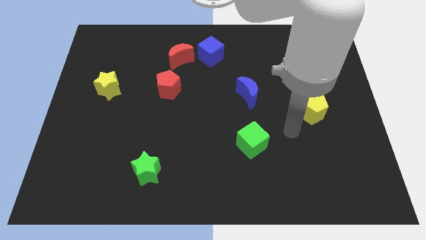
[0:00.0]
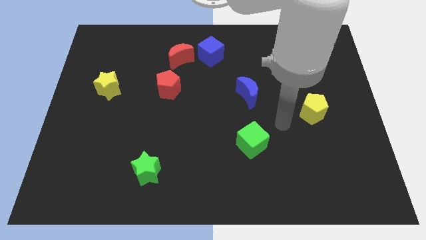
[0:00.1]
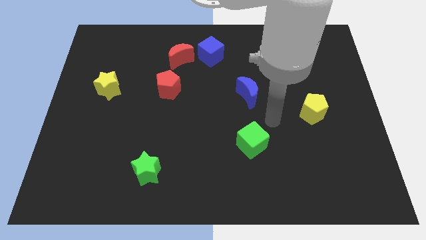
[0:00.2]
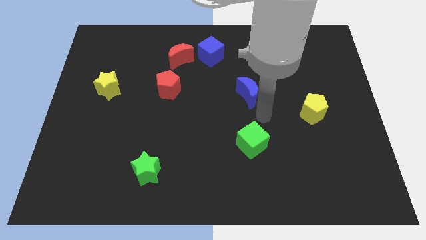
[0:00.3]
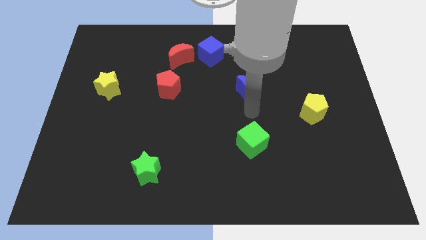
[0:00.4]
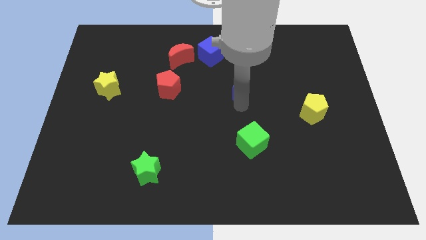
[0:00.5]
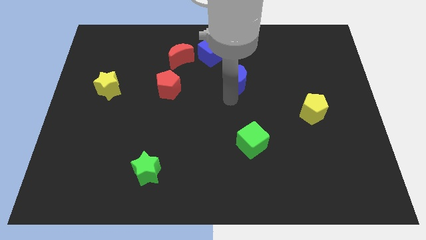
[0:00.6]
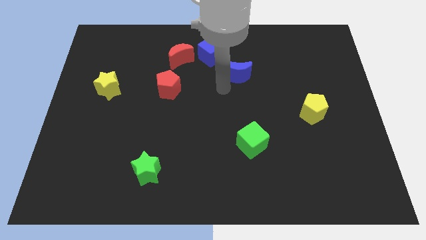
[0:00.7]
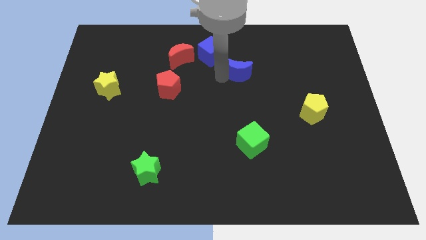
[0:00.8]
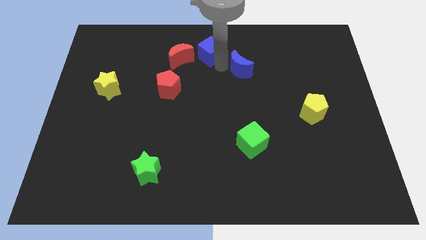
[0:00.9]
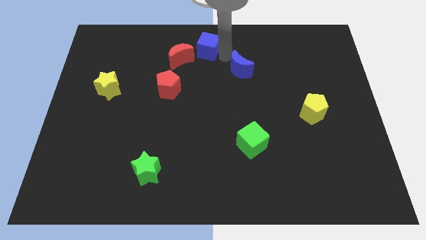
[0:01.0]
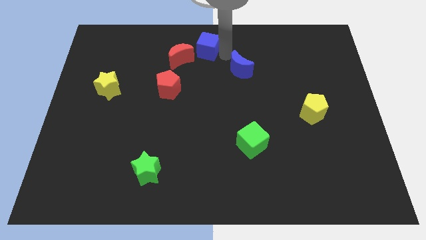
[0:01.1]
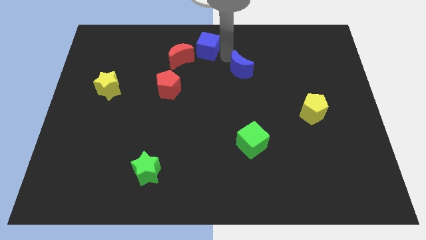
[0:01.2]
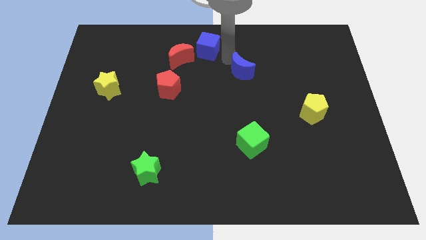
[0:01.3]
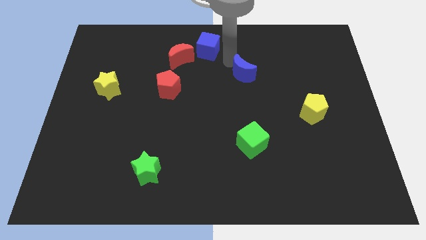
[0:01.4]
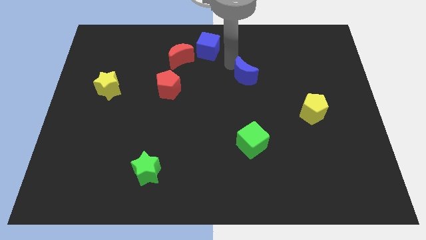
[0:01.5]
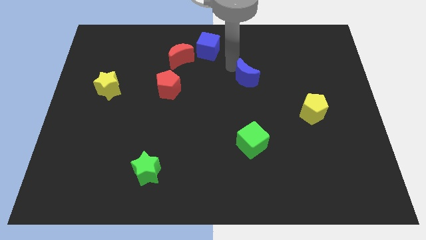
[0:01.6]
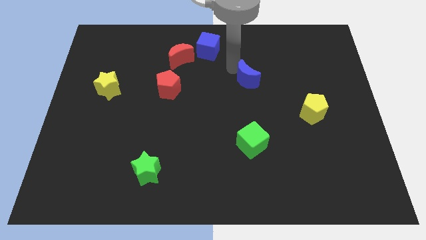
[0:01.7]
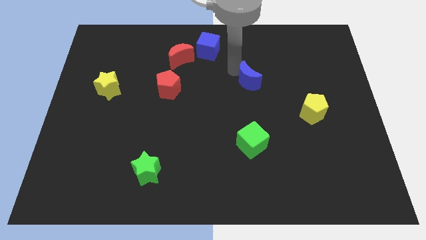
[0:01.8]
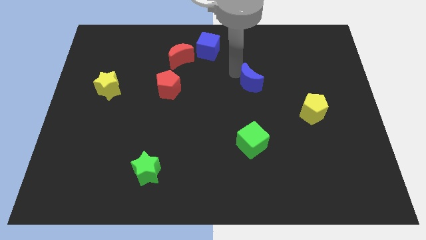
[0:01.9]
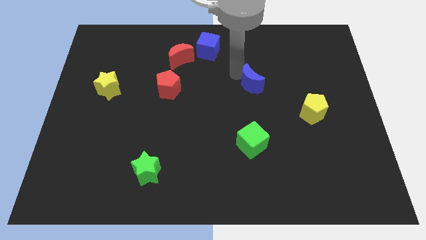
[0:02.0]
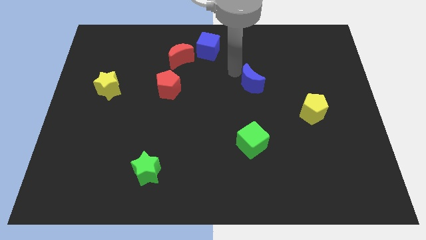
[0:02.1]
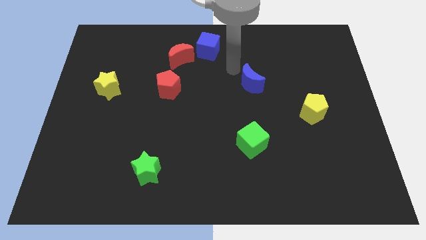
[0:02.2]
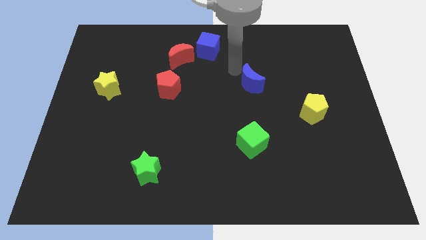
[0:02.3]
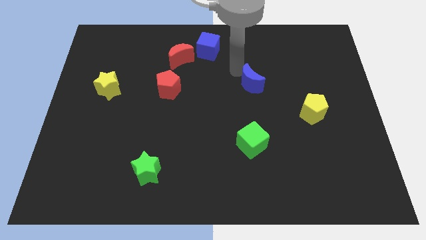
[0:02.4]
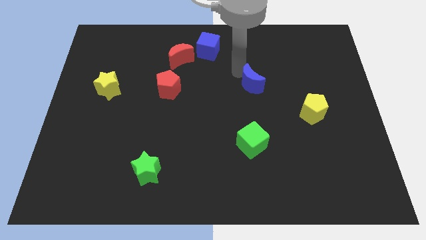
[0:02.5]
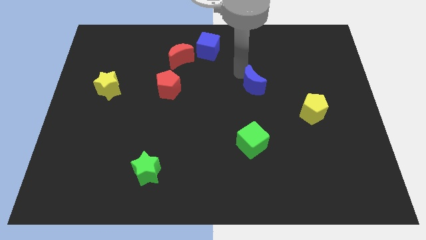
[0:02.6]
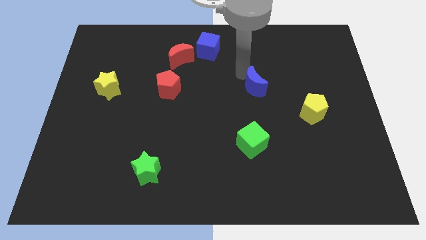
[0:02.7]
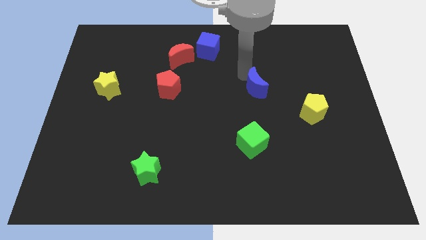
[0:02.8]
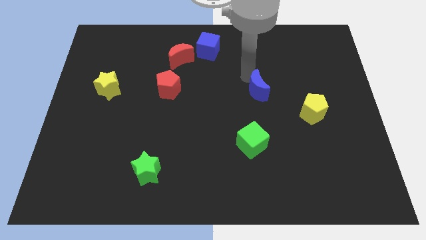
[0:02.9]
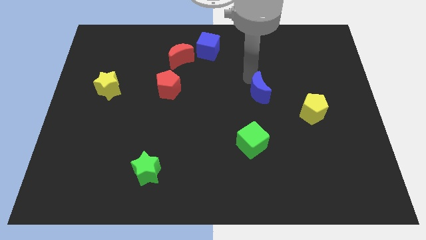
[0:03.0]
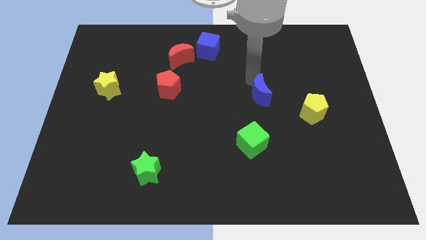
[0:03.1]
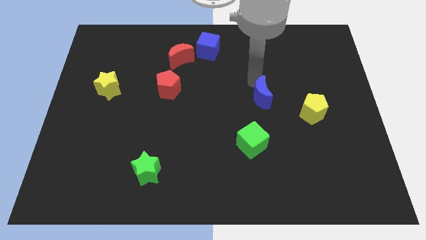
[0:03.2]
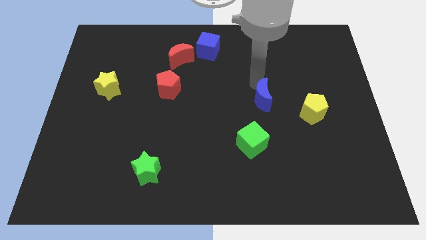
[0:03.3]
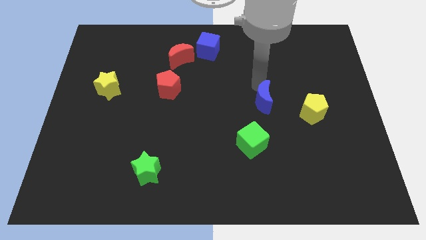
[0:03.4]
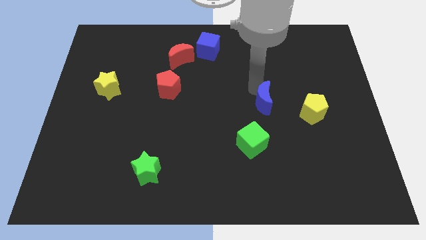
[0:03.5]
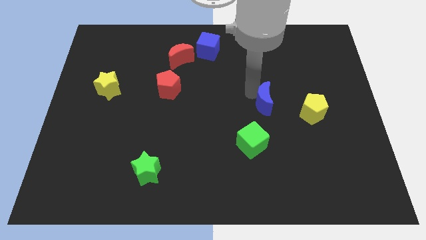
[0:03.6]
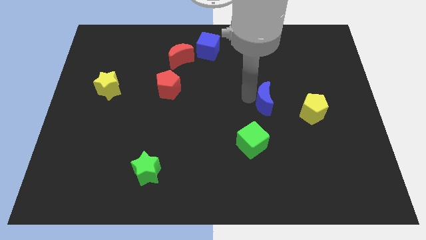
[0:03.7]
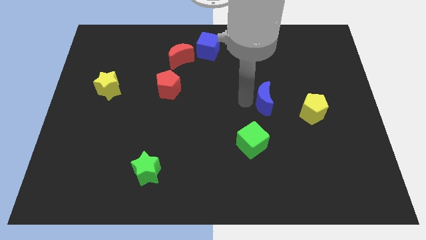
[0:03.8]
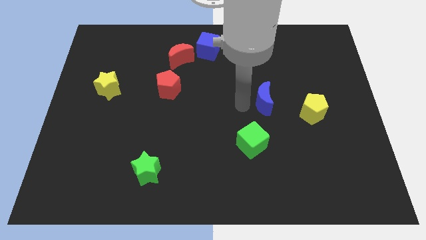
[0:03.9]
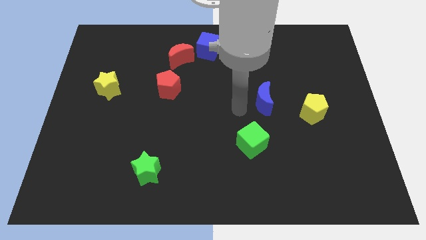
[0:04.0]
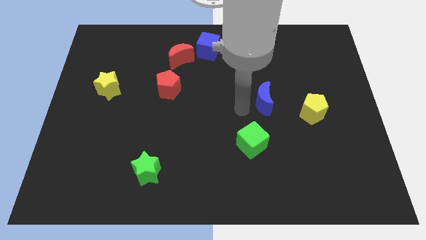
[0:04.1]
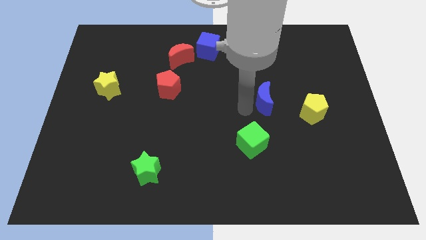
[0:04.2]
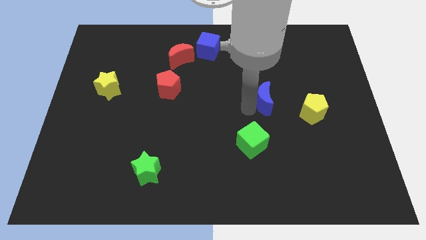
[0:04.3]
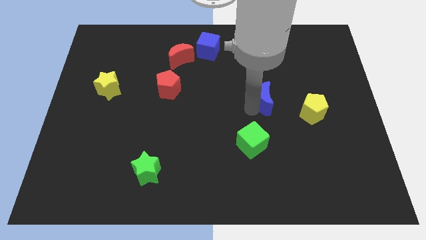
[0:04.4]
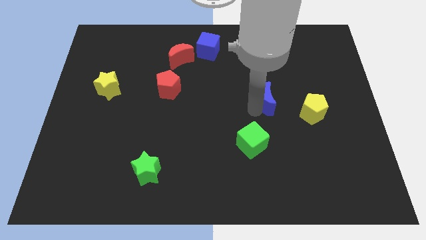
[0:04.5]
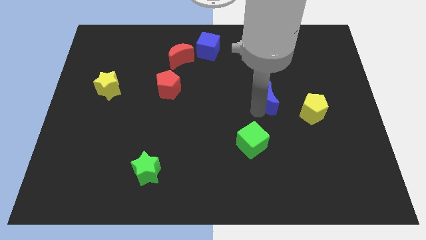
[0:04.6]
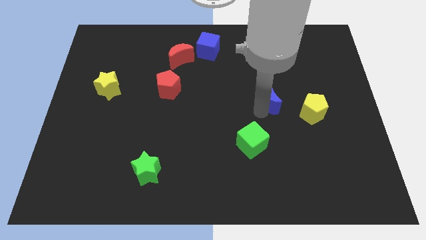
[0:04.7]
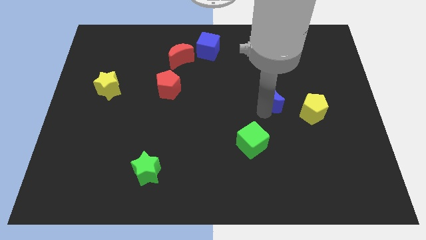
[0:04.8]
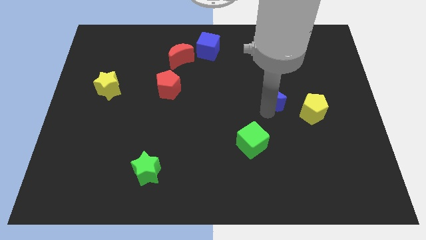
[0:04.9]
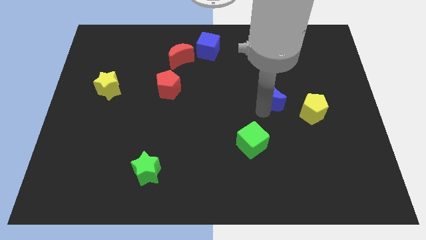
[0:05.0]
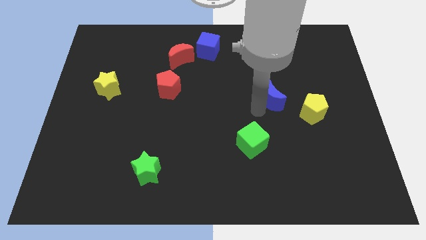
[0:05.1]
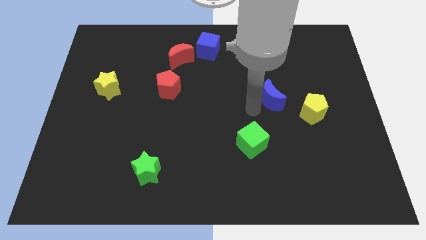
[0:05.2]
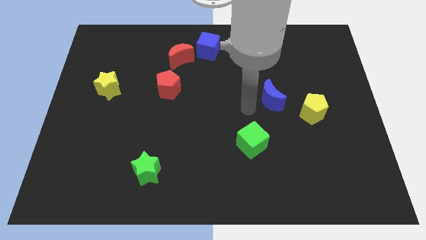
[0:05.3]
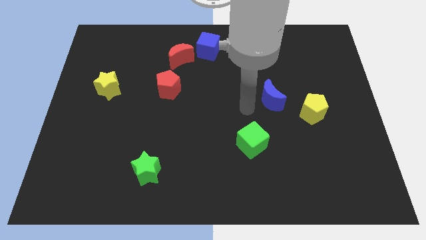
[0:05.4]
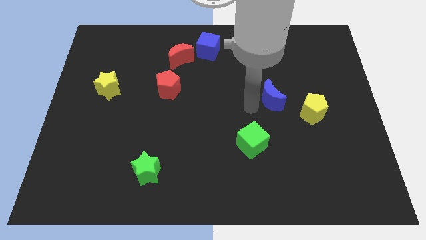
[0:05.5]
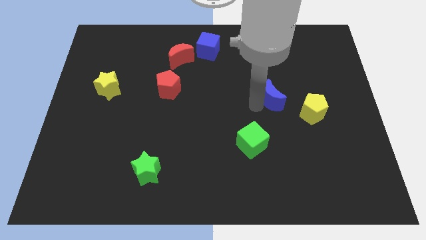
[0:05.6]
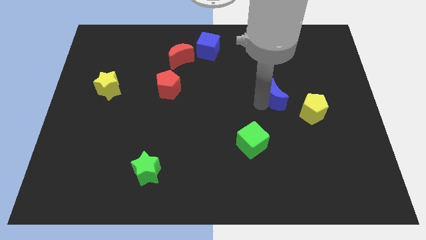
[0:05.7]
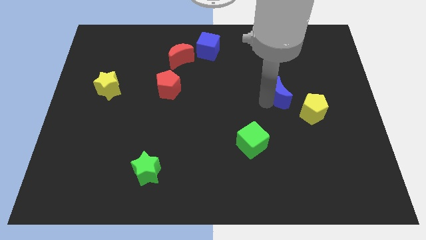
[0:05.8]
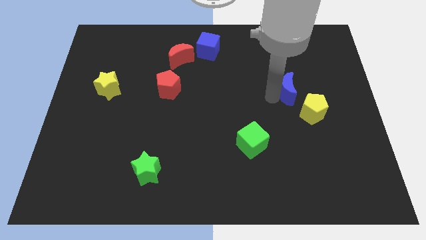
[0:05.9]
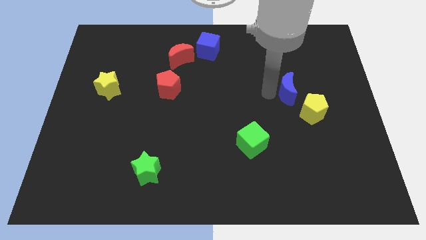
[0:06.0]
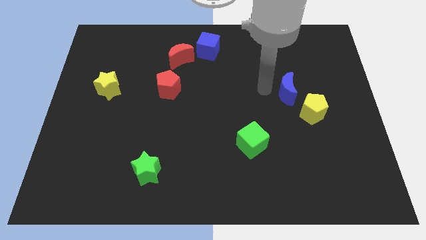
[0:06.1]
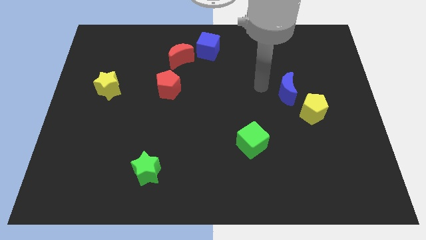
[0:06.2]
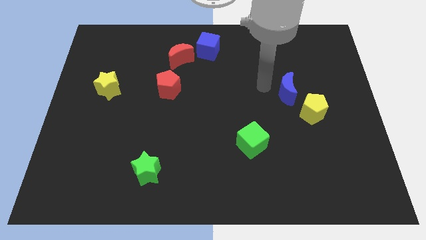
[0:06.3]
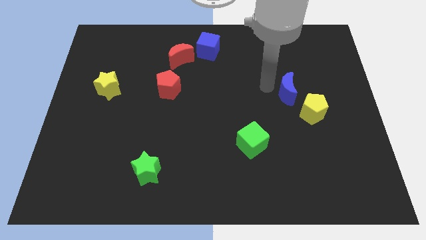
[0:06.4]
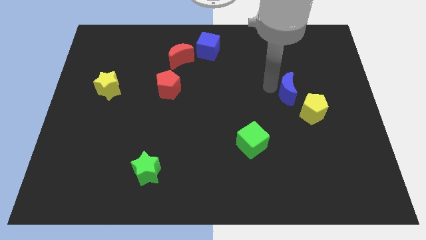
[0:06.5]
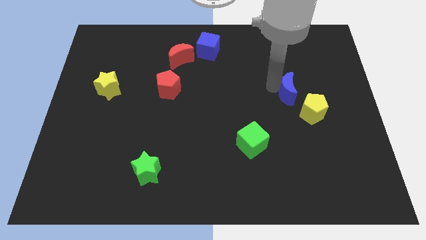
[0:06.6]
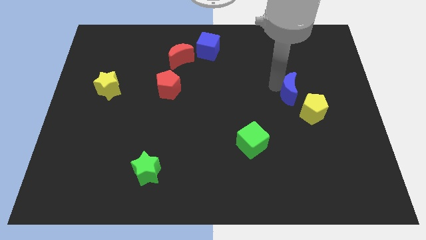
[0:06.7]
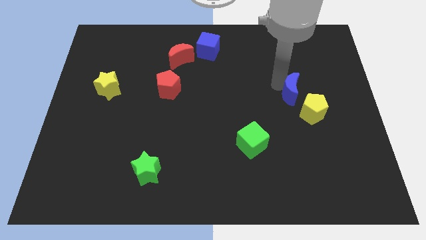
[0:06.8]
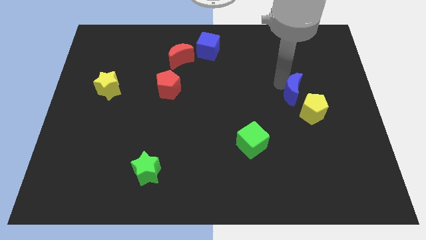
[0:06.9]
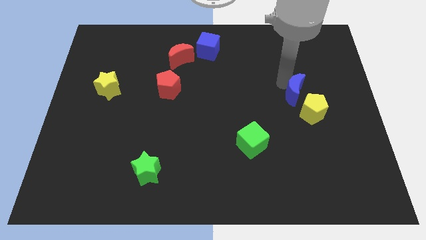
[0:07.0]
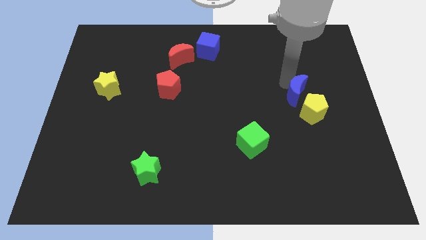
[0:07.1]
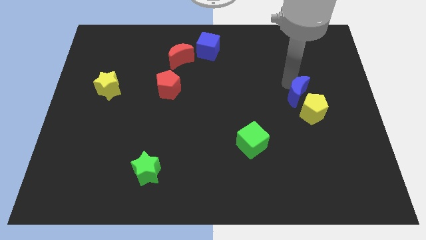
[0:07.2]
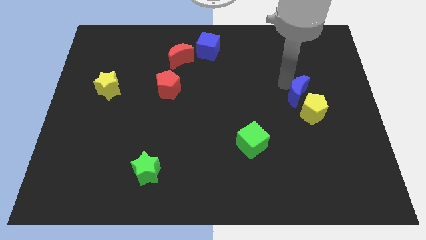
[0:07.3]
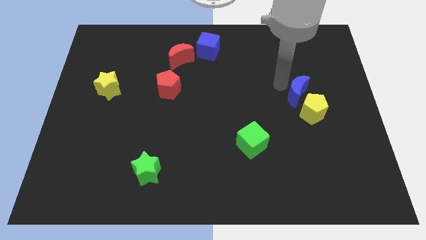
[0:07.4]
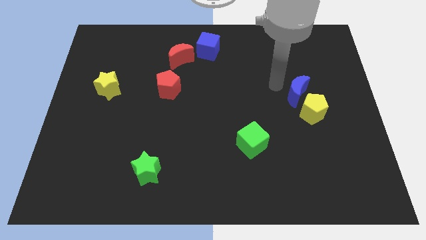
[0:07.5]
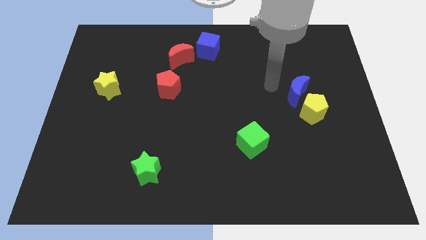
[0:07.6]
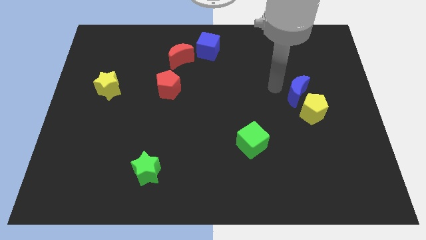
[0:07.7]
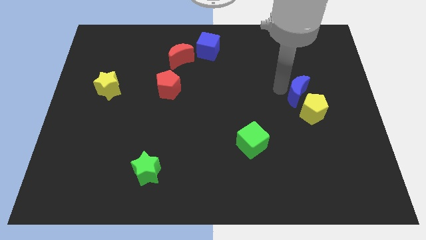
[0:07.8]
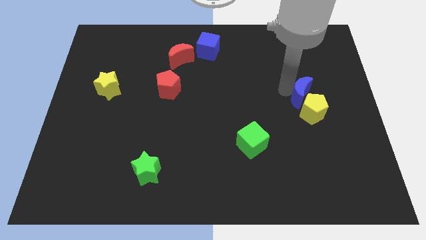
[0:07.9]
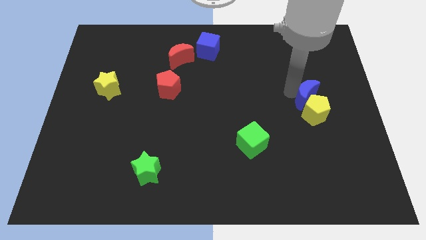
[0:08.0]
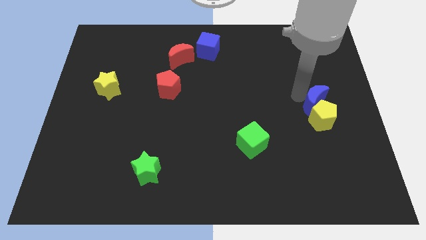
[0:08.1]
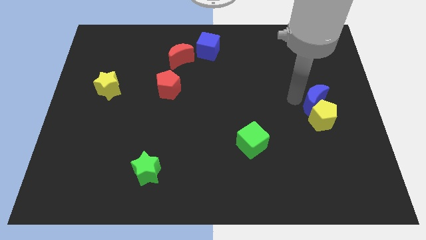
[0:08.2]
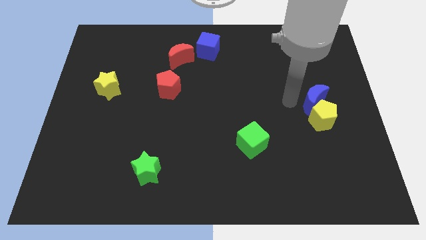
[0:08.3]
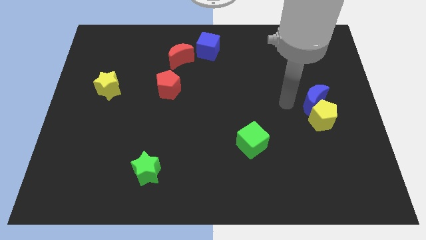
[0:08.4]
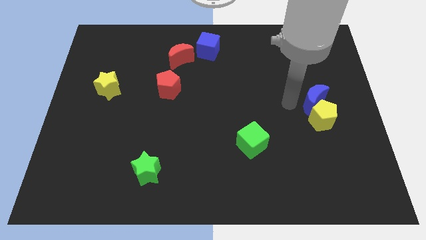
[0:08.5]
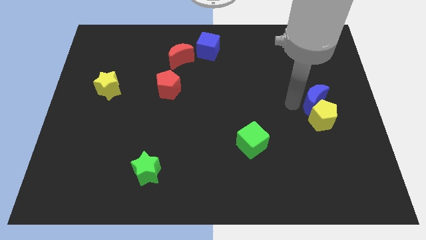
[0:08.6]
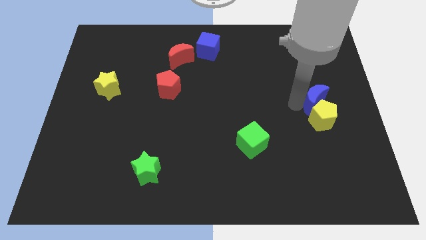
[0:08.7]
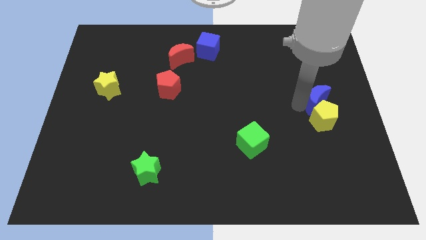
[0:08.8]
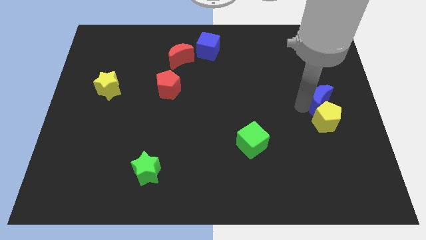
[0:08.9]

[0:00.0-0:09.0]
move the blue moon to the right side of the board
